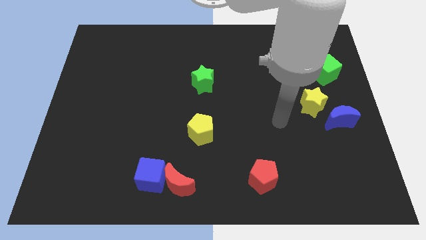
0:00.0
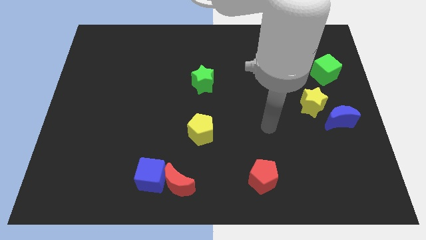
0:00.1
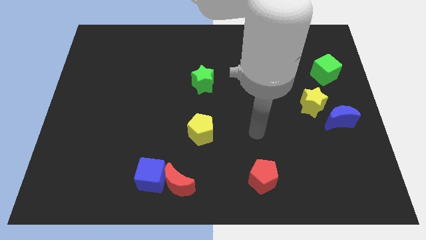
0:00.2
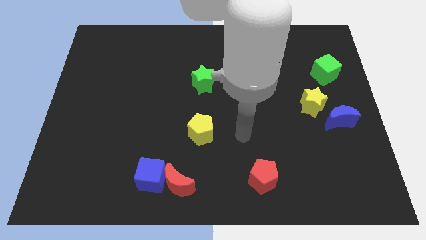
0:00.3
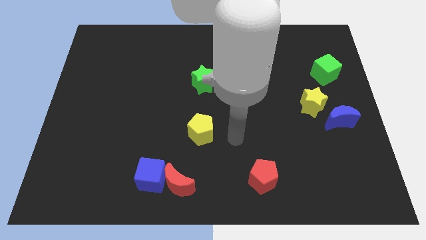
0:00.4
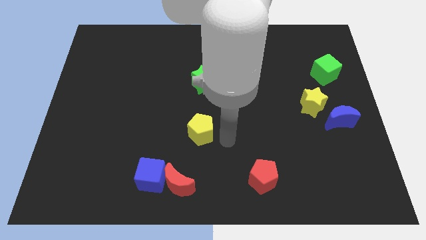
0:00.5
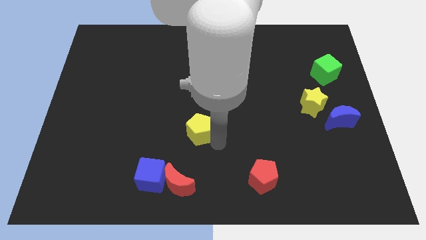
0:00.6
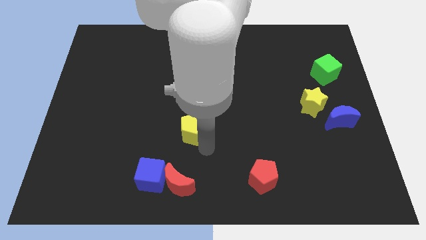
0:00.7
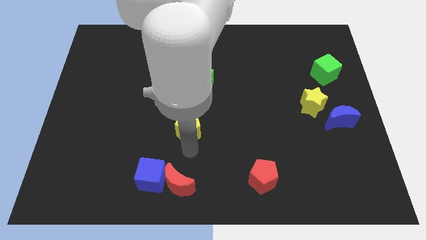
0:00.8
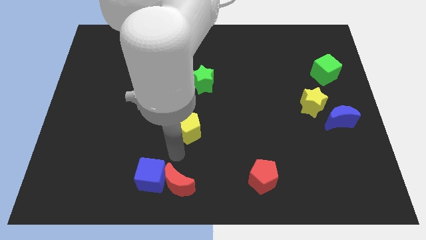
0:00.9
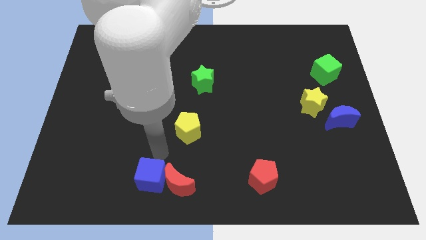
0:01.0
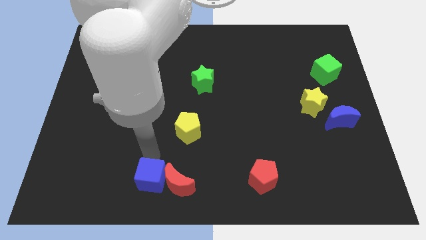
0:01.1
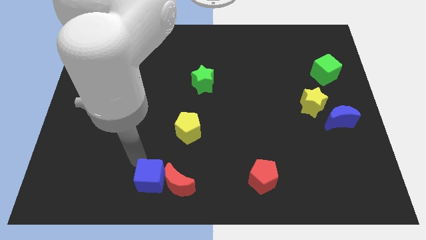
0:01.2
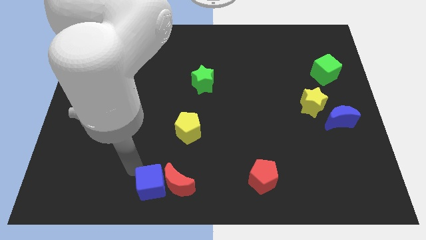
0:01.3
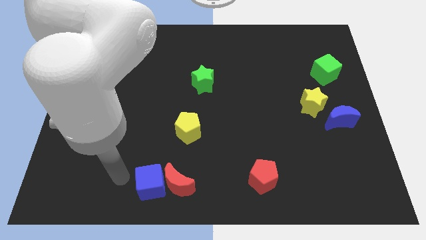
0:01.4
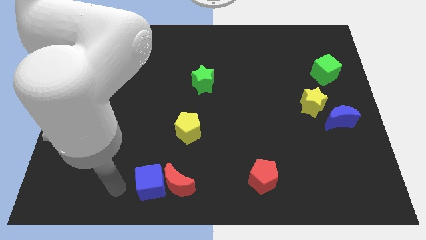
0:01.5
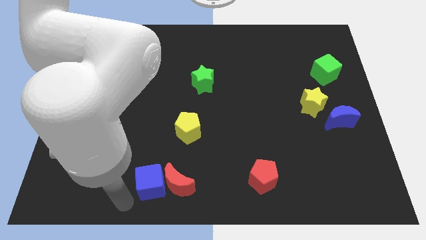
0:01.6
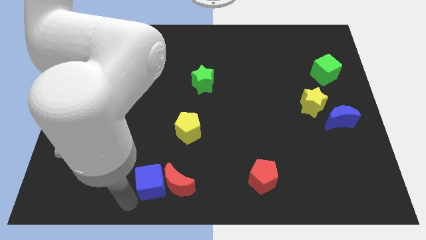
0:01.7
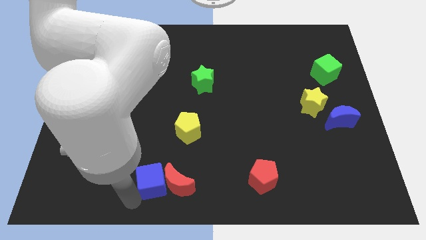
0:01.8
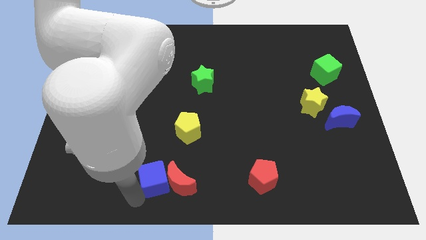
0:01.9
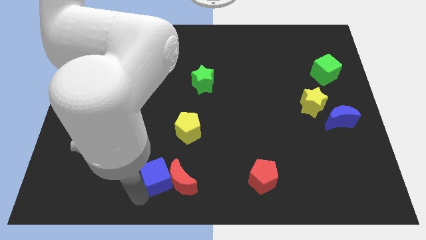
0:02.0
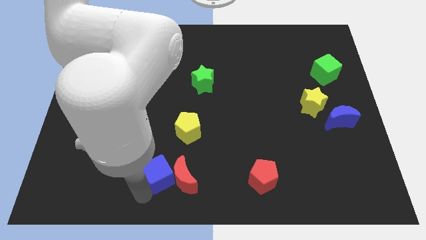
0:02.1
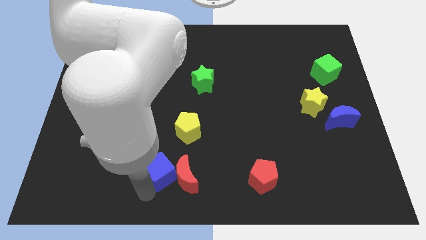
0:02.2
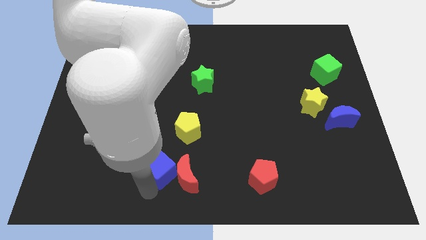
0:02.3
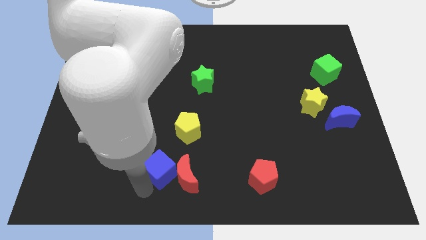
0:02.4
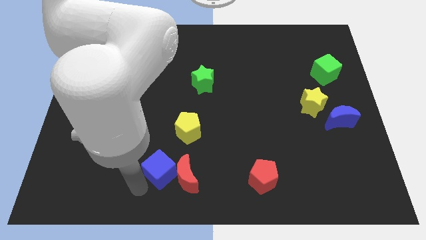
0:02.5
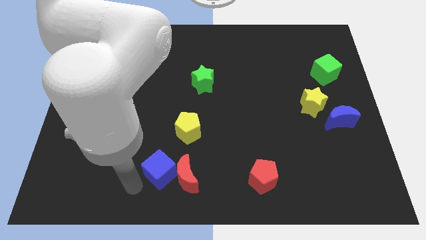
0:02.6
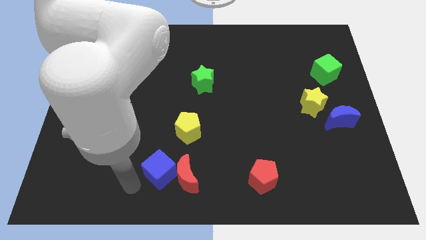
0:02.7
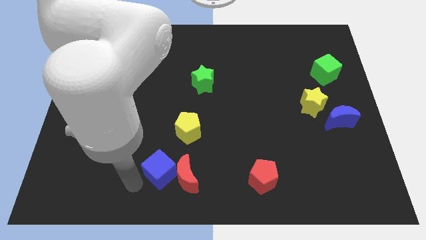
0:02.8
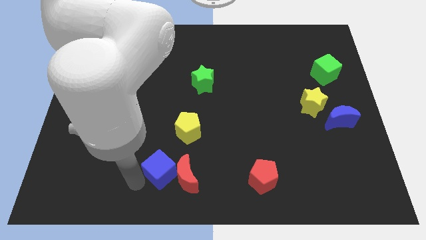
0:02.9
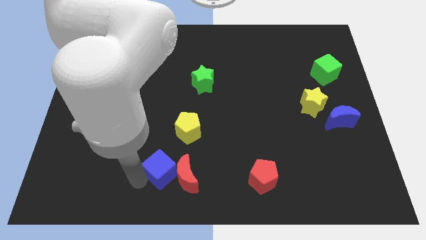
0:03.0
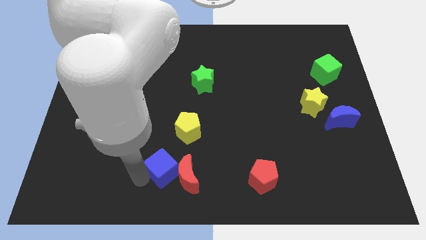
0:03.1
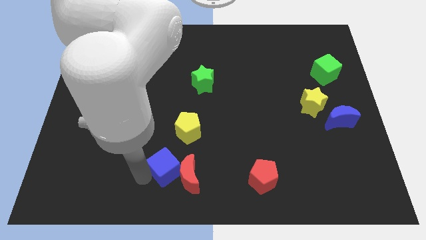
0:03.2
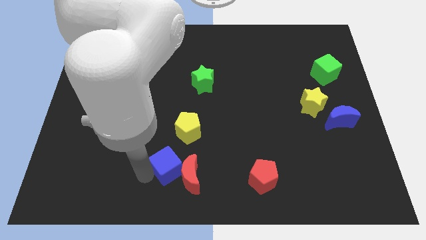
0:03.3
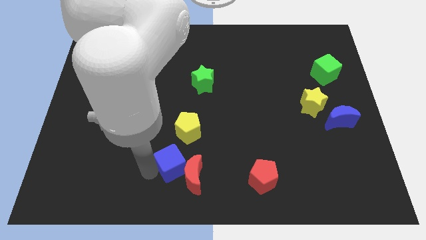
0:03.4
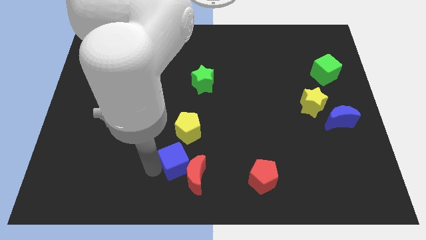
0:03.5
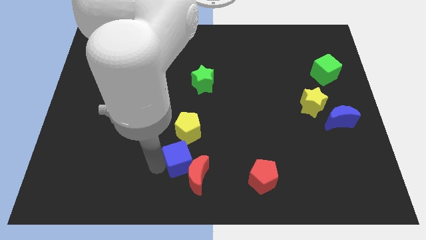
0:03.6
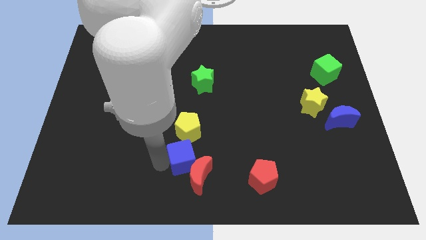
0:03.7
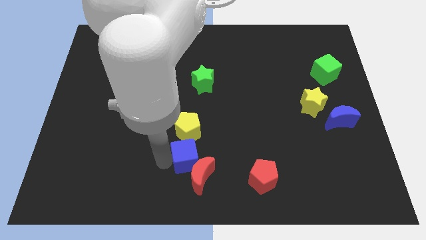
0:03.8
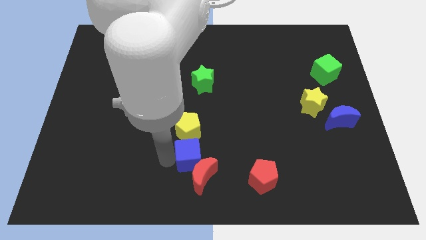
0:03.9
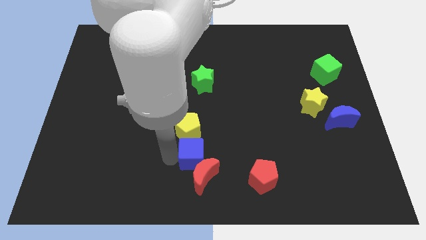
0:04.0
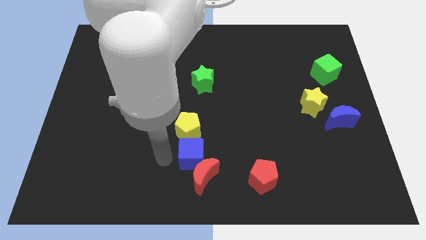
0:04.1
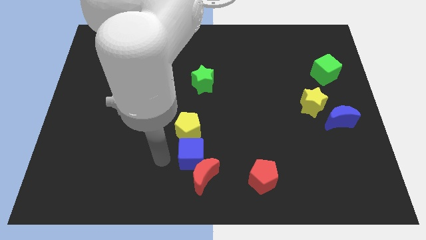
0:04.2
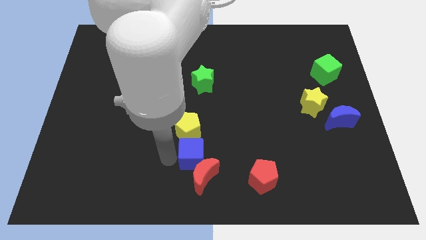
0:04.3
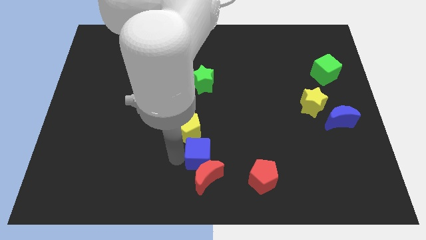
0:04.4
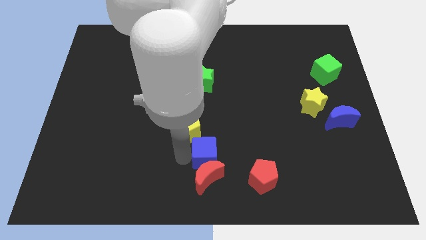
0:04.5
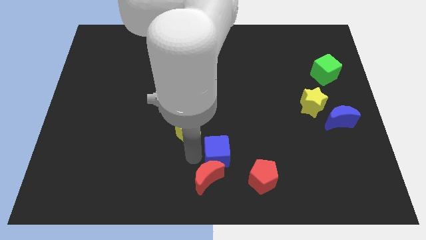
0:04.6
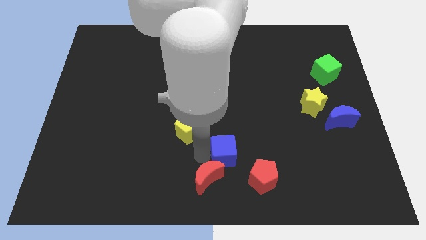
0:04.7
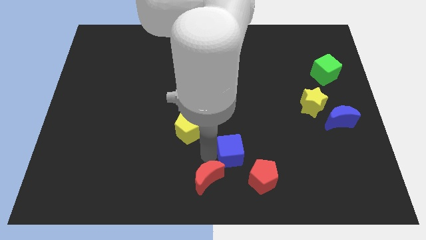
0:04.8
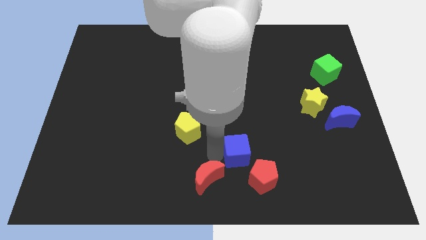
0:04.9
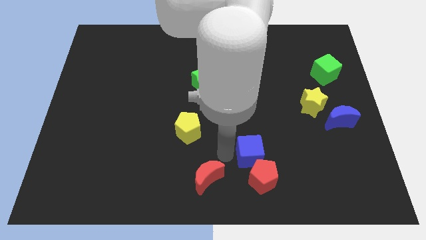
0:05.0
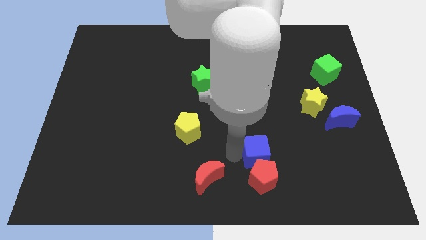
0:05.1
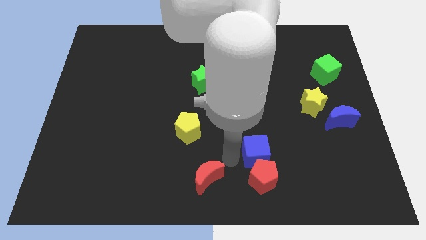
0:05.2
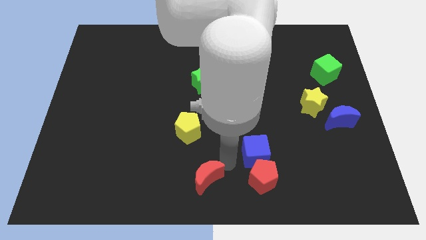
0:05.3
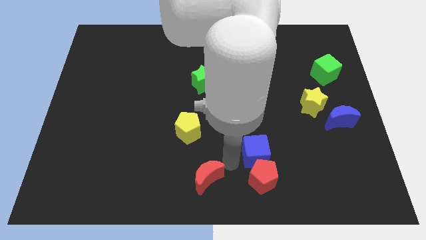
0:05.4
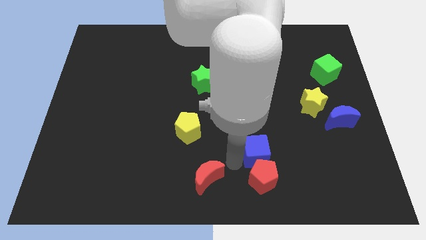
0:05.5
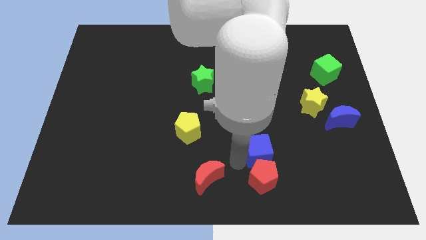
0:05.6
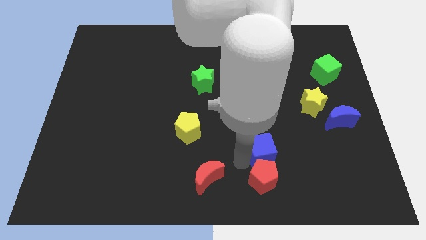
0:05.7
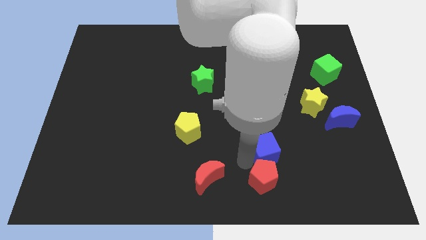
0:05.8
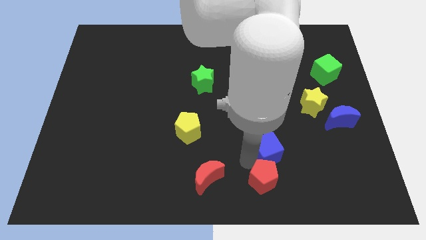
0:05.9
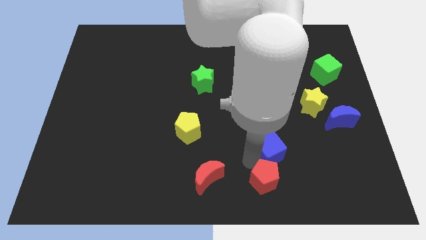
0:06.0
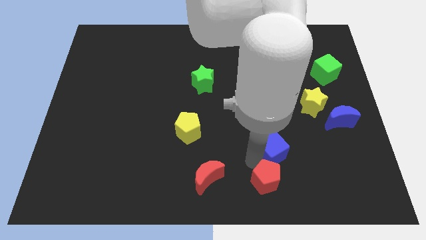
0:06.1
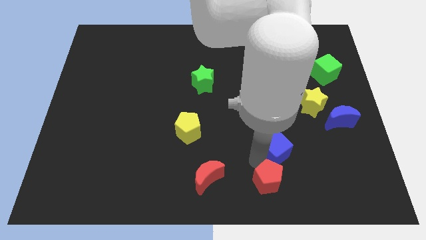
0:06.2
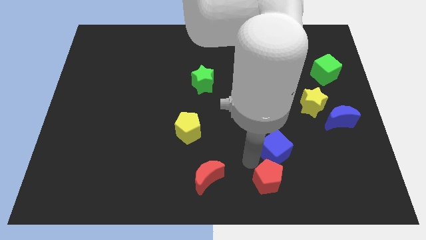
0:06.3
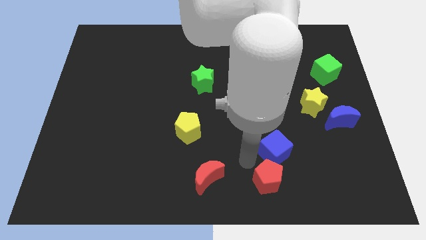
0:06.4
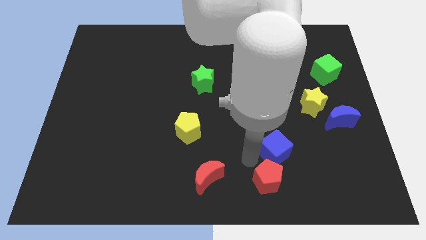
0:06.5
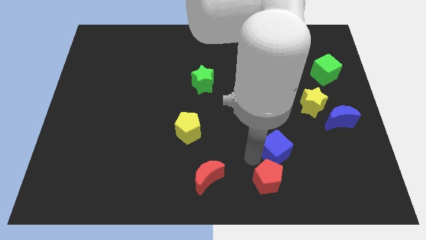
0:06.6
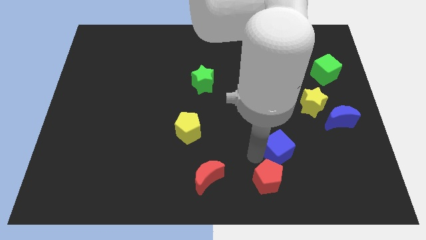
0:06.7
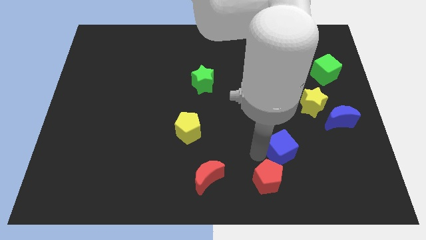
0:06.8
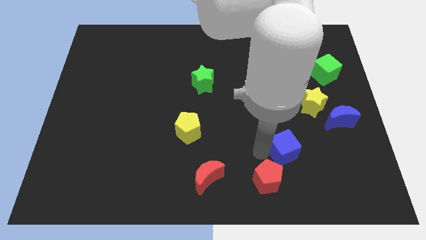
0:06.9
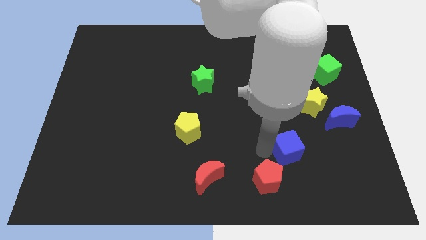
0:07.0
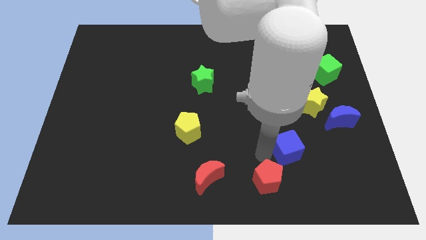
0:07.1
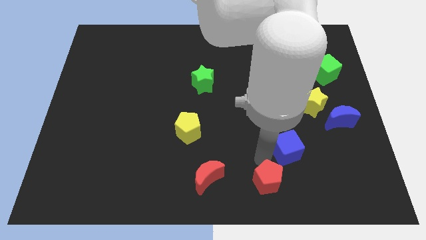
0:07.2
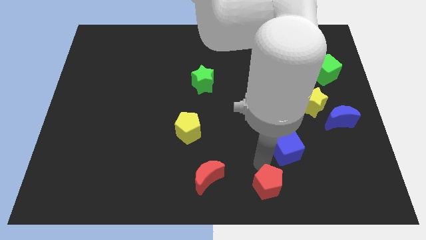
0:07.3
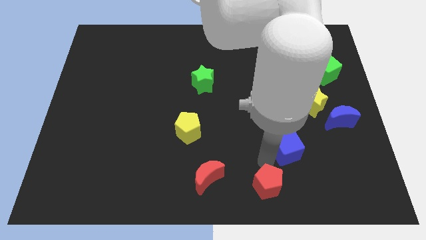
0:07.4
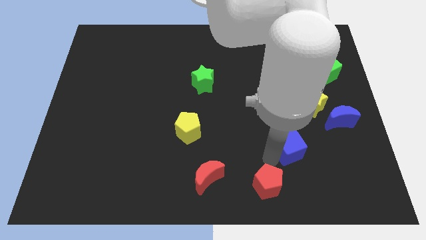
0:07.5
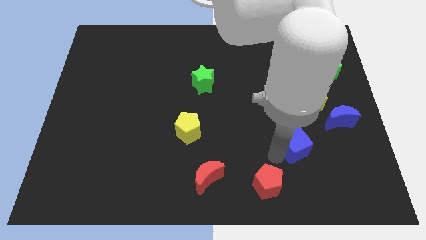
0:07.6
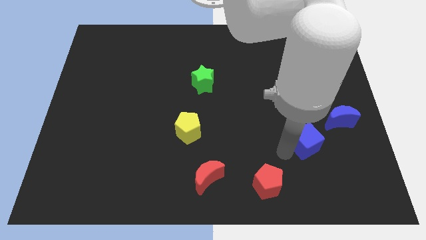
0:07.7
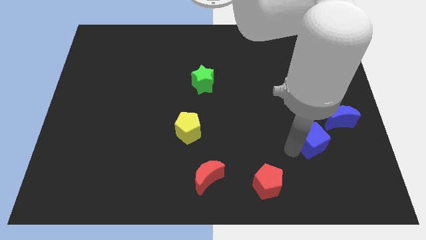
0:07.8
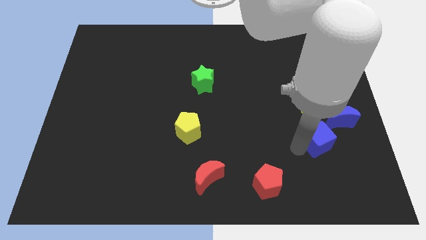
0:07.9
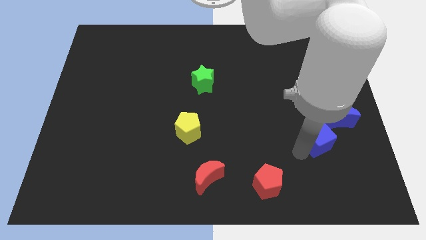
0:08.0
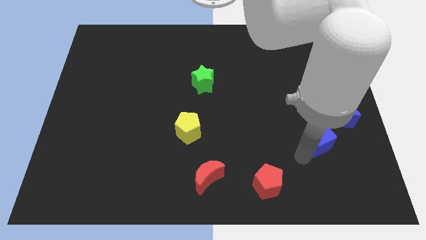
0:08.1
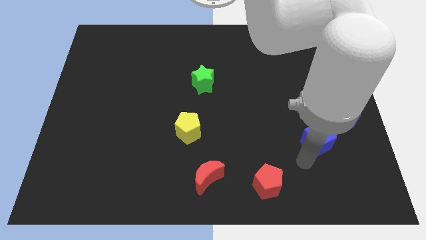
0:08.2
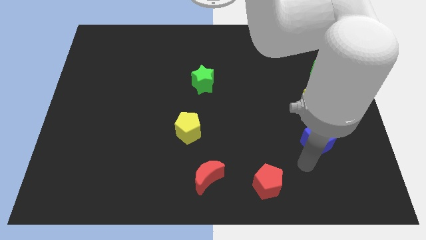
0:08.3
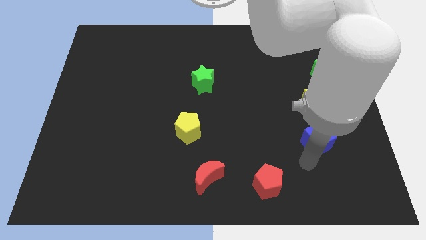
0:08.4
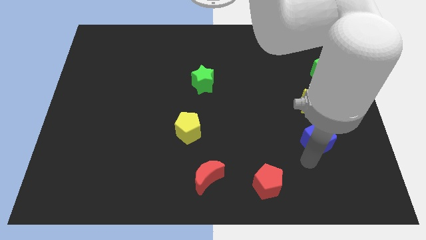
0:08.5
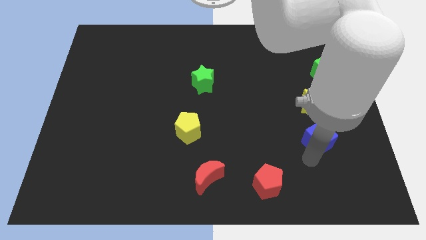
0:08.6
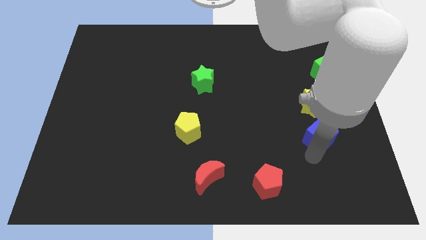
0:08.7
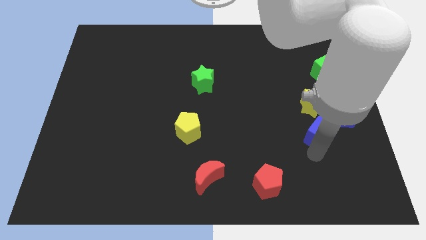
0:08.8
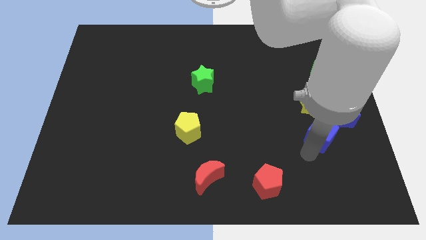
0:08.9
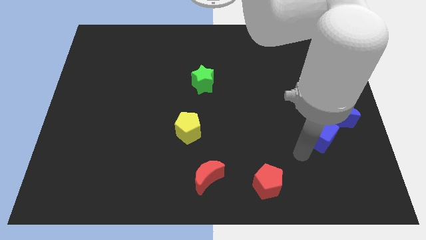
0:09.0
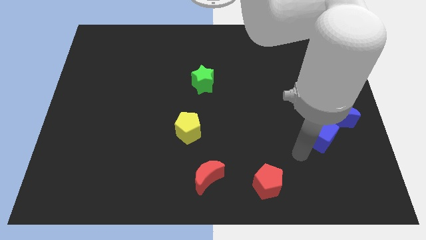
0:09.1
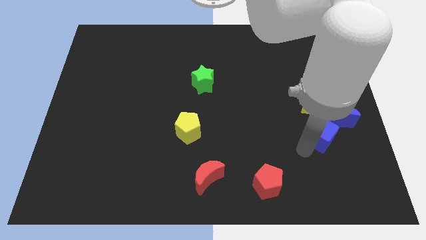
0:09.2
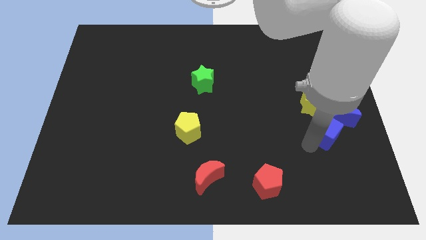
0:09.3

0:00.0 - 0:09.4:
move the blue cube next to the blue moon
